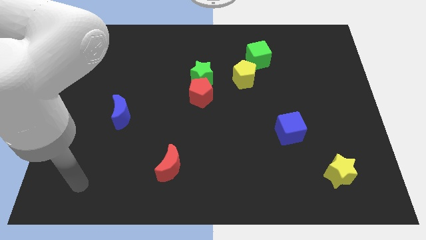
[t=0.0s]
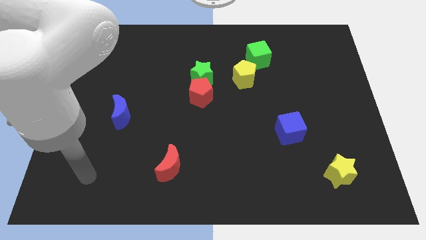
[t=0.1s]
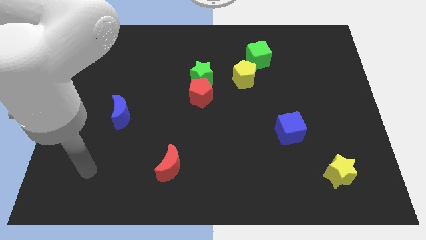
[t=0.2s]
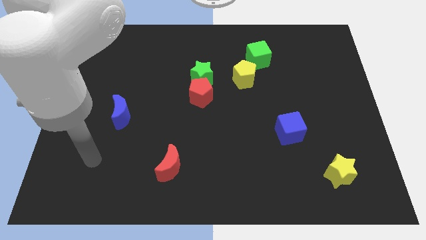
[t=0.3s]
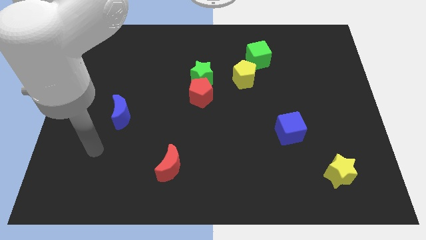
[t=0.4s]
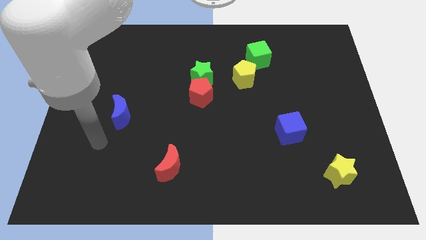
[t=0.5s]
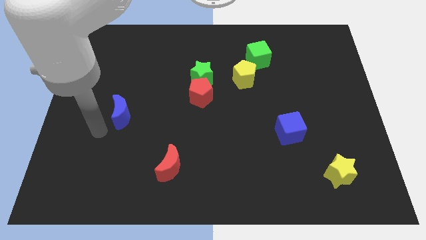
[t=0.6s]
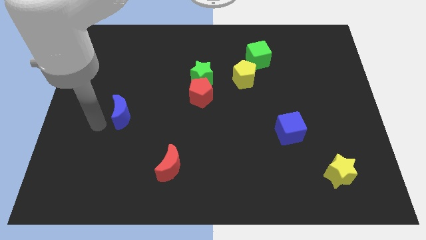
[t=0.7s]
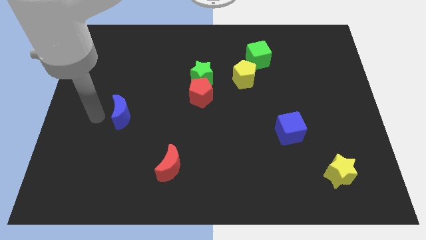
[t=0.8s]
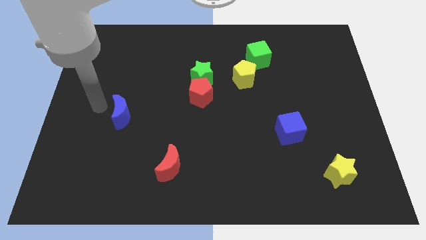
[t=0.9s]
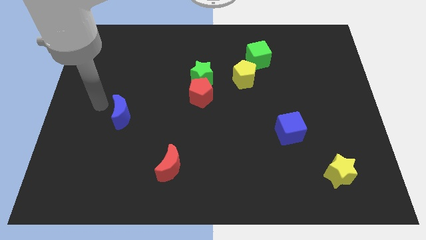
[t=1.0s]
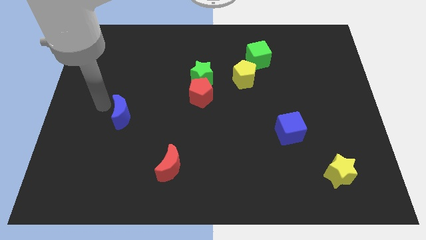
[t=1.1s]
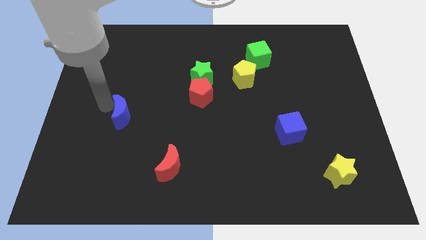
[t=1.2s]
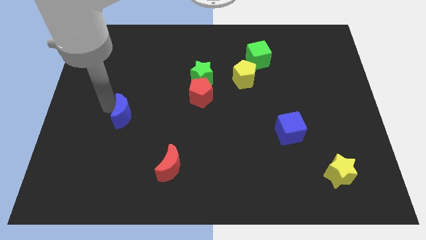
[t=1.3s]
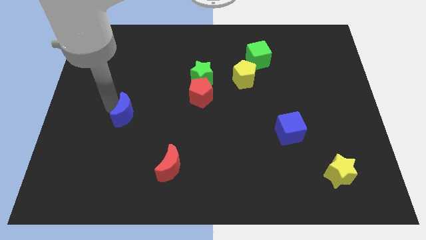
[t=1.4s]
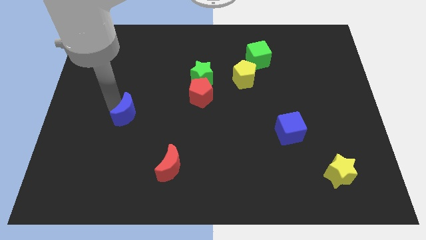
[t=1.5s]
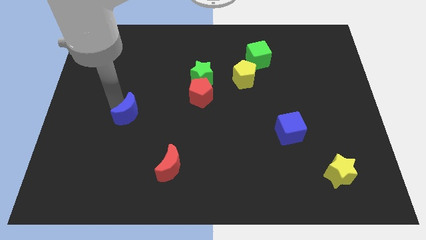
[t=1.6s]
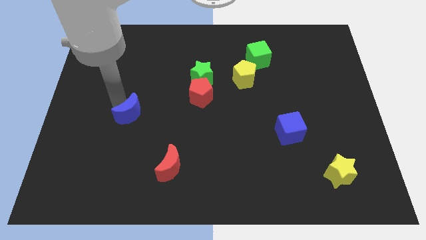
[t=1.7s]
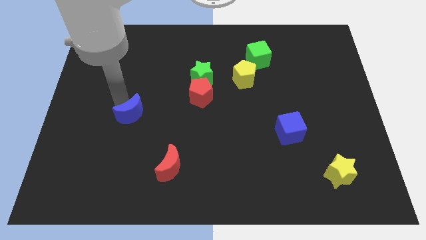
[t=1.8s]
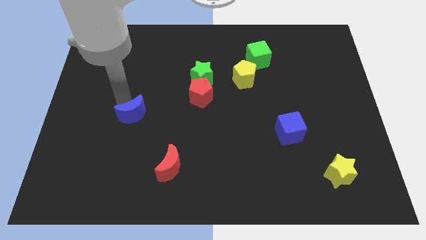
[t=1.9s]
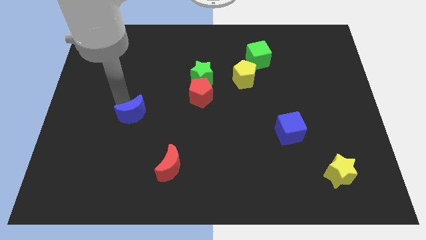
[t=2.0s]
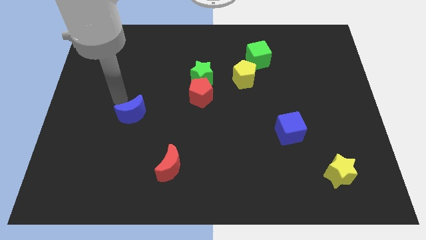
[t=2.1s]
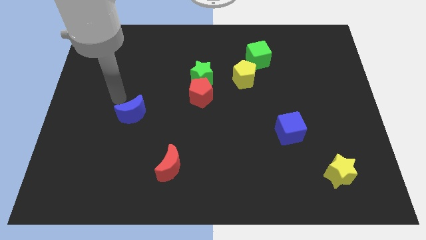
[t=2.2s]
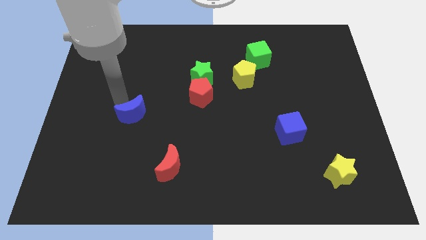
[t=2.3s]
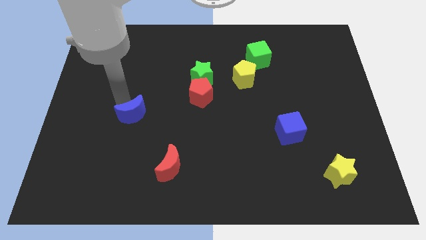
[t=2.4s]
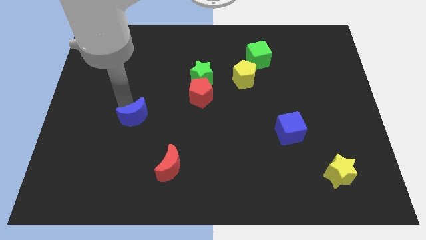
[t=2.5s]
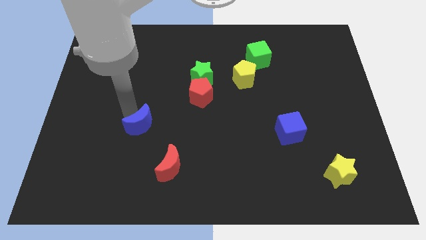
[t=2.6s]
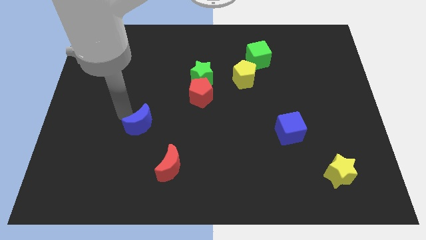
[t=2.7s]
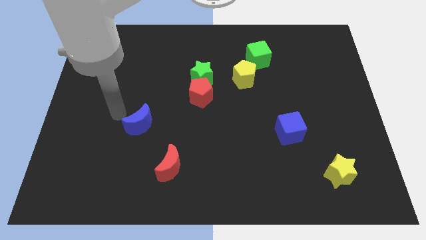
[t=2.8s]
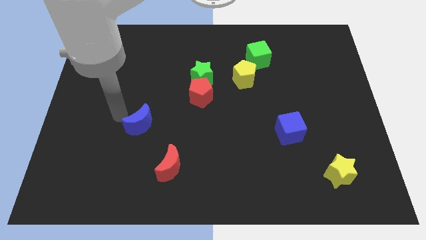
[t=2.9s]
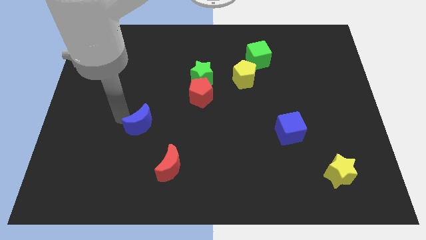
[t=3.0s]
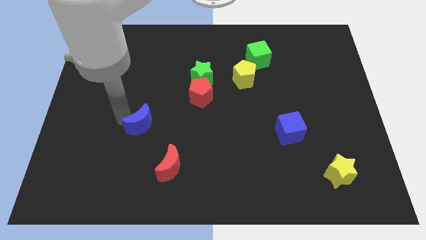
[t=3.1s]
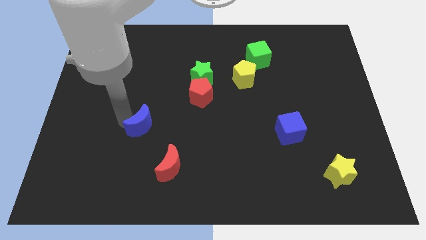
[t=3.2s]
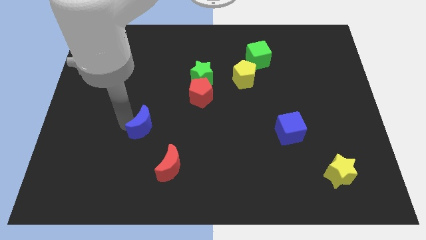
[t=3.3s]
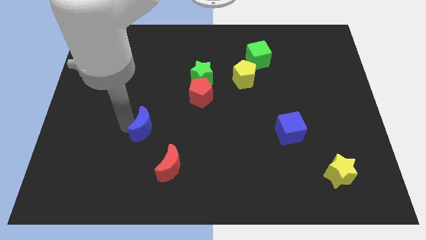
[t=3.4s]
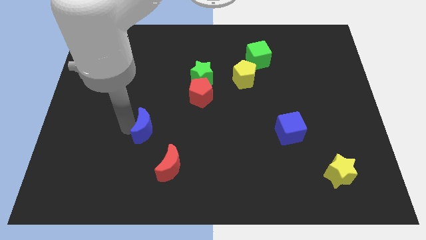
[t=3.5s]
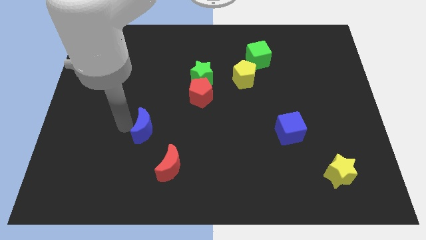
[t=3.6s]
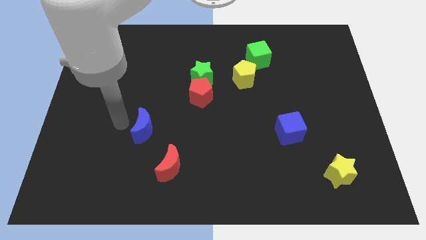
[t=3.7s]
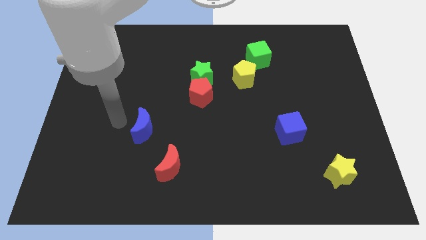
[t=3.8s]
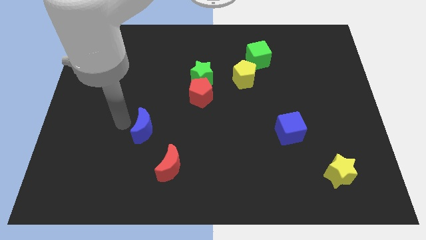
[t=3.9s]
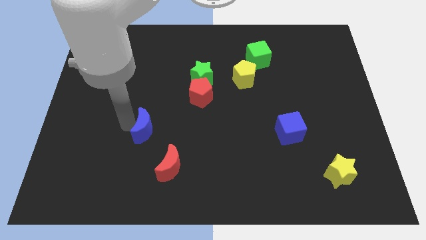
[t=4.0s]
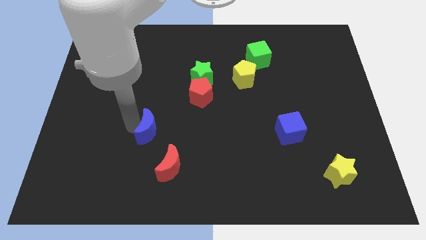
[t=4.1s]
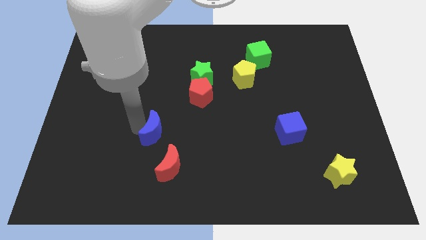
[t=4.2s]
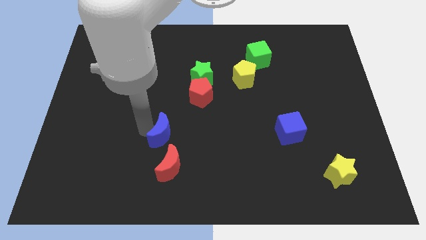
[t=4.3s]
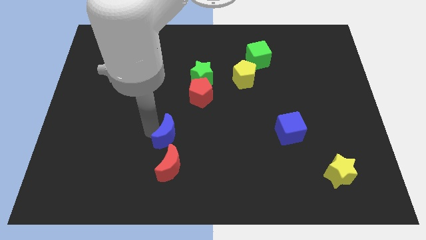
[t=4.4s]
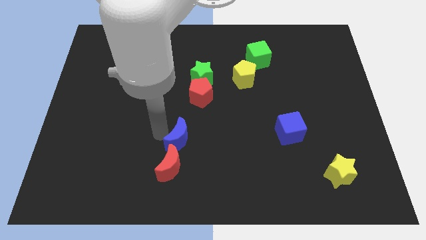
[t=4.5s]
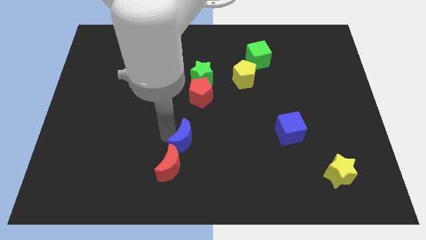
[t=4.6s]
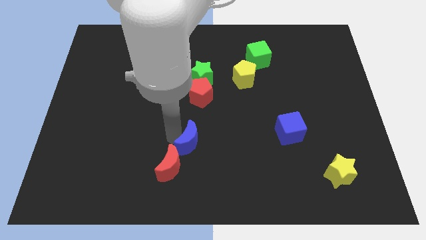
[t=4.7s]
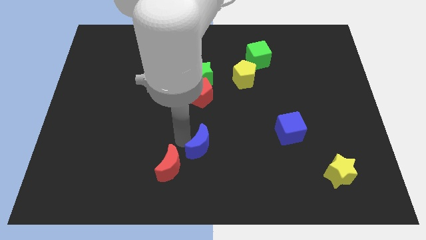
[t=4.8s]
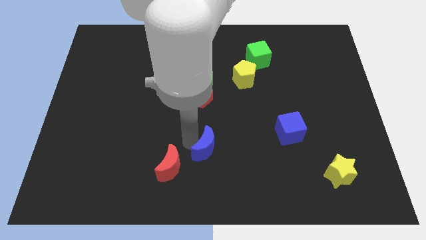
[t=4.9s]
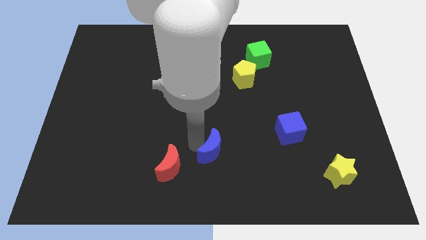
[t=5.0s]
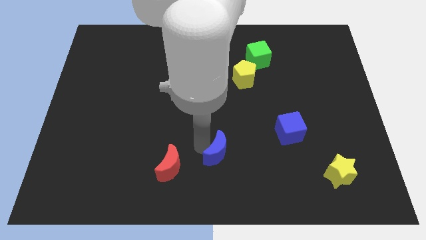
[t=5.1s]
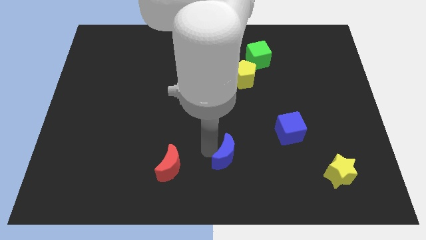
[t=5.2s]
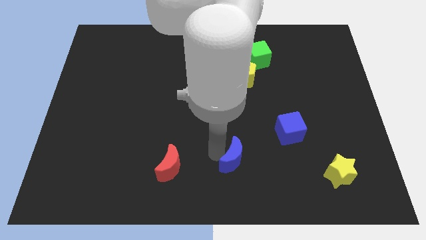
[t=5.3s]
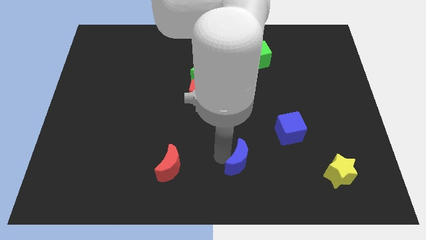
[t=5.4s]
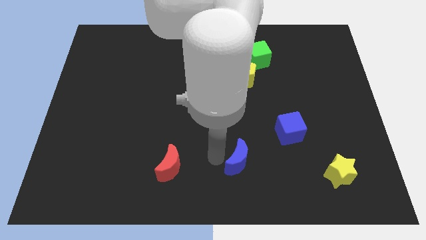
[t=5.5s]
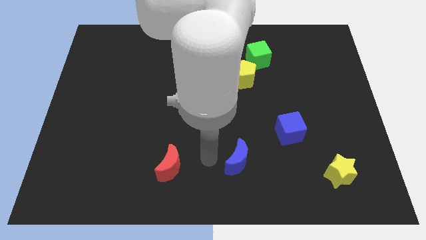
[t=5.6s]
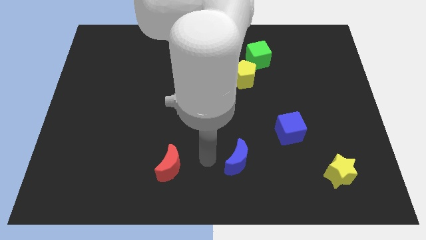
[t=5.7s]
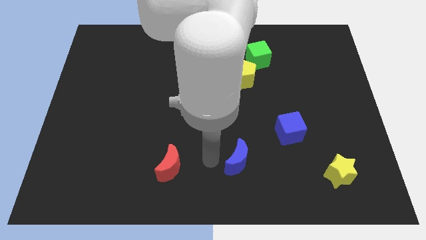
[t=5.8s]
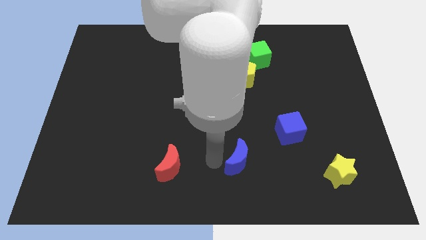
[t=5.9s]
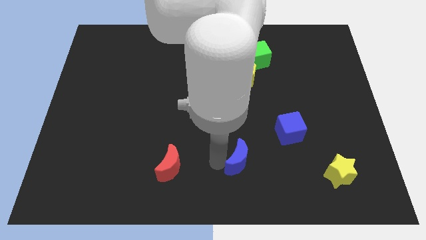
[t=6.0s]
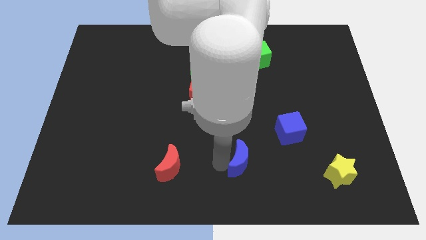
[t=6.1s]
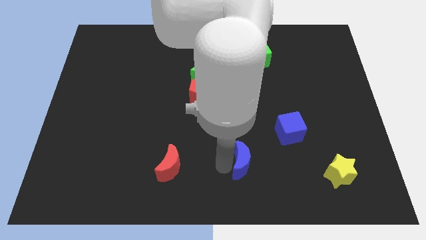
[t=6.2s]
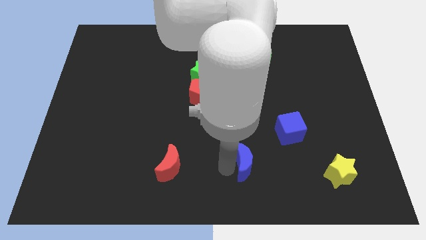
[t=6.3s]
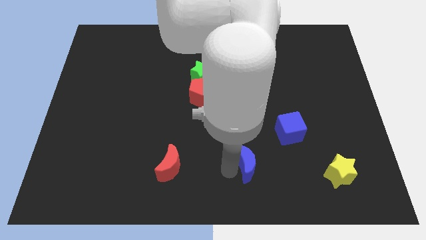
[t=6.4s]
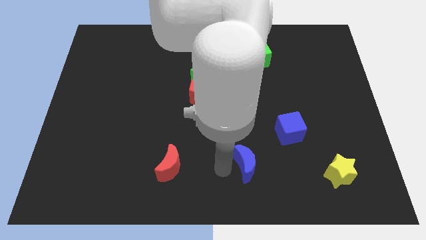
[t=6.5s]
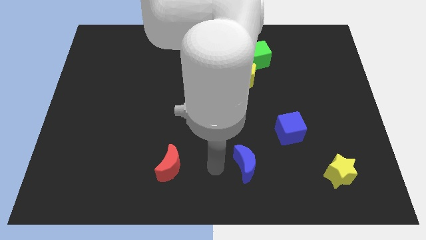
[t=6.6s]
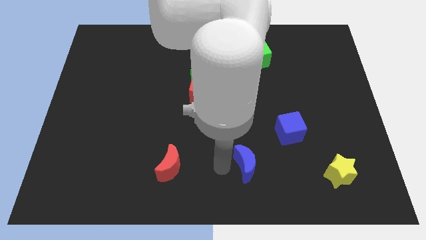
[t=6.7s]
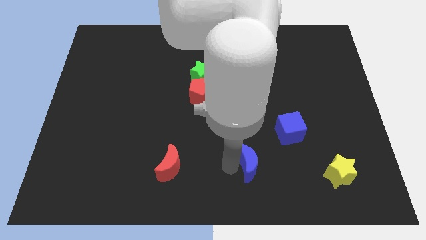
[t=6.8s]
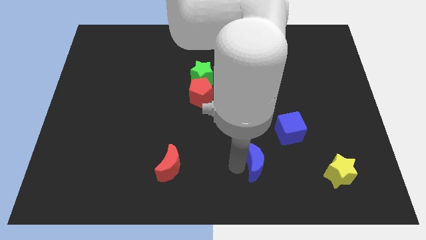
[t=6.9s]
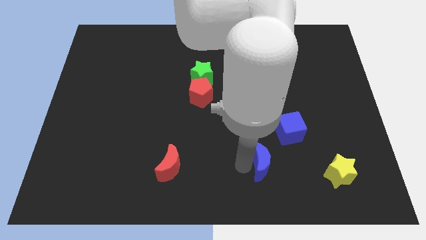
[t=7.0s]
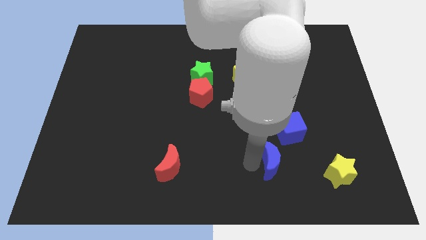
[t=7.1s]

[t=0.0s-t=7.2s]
slide the blue moon below the blue cube

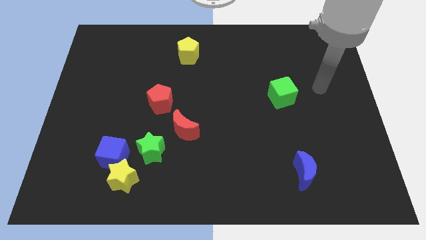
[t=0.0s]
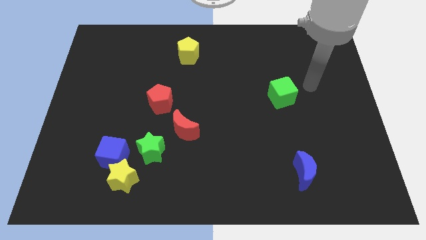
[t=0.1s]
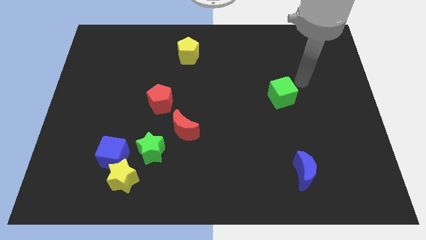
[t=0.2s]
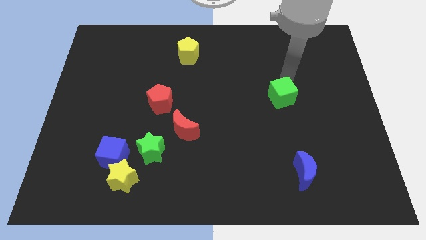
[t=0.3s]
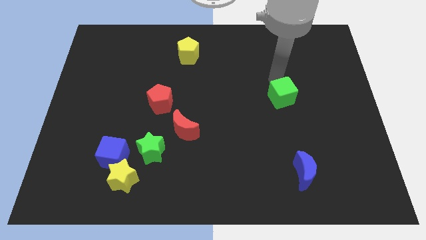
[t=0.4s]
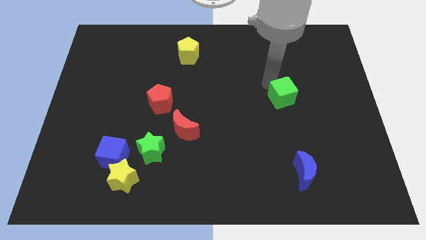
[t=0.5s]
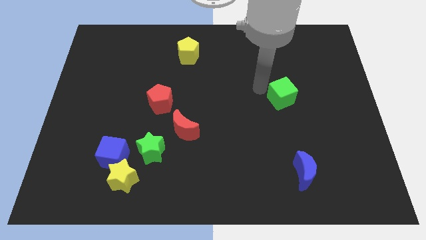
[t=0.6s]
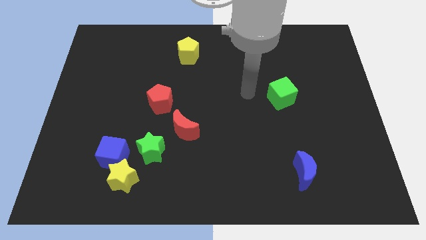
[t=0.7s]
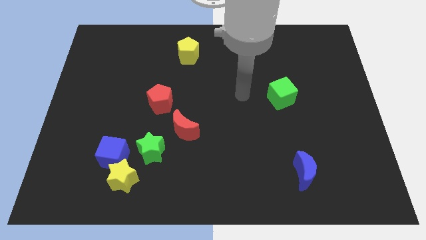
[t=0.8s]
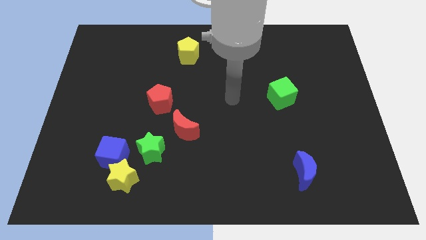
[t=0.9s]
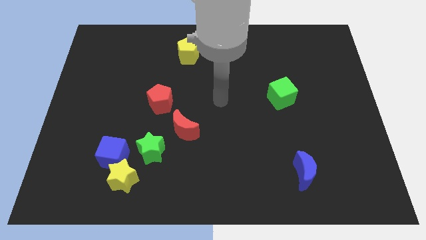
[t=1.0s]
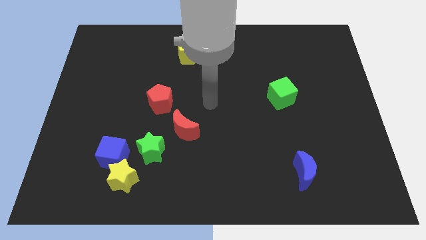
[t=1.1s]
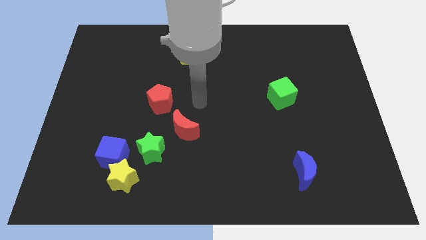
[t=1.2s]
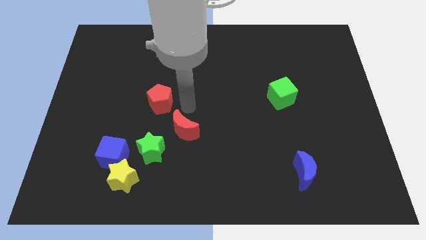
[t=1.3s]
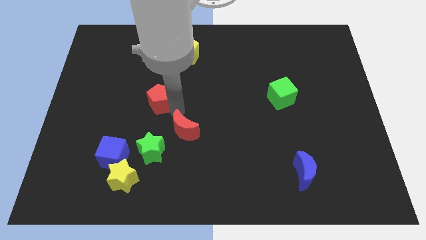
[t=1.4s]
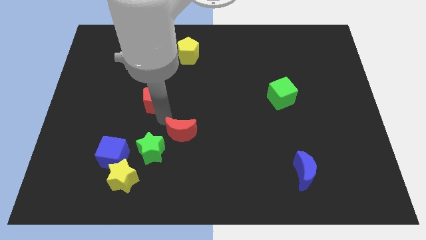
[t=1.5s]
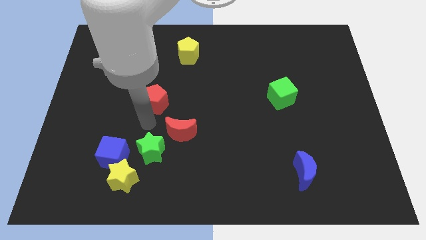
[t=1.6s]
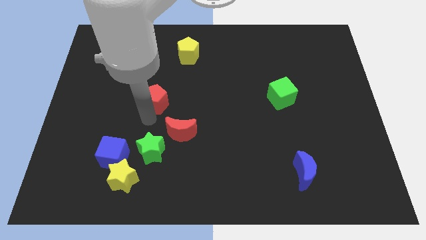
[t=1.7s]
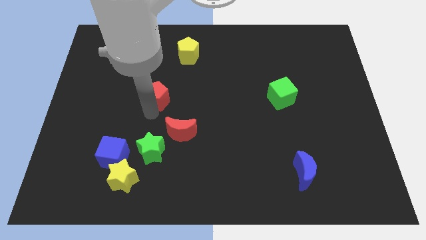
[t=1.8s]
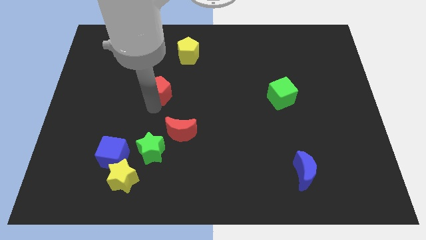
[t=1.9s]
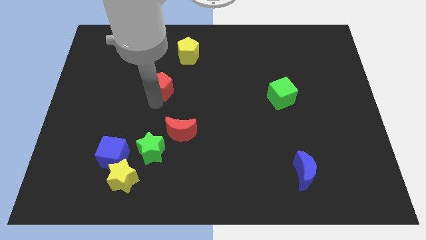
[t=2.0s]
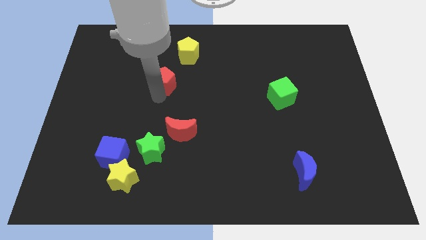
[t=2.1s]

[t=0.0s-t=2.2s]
push the red pentagon diagonally down and to the left of the yellow pentagon
